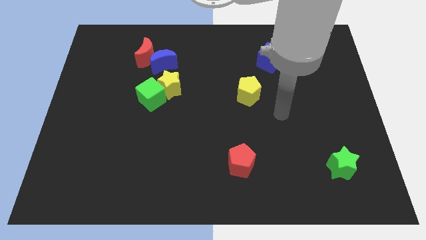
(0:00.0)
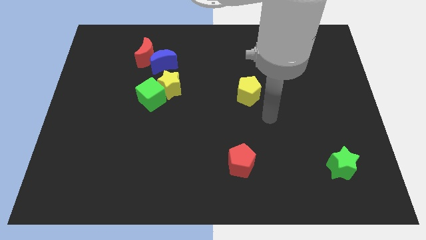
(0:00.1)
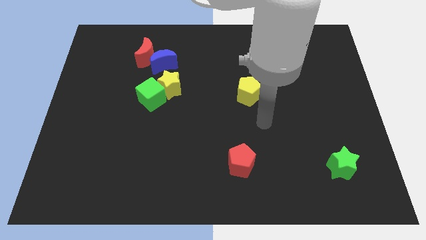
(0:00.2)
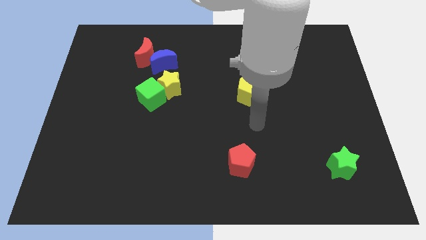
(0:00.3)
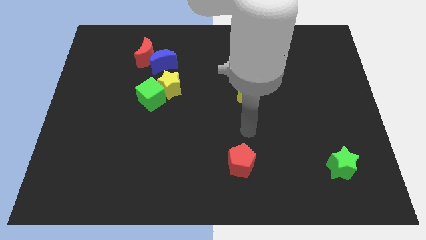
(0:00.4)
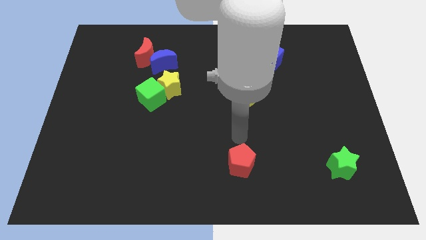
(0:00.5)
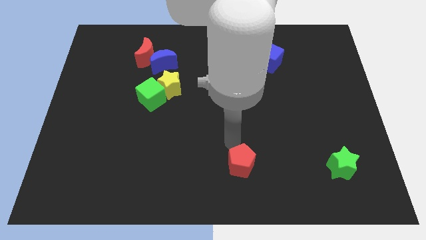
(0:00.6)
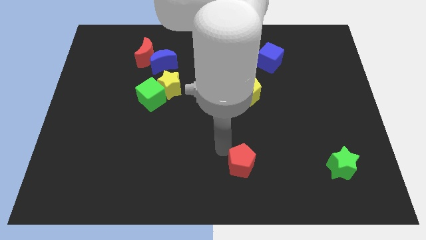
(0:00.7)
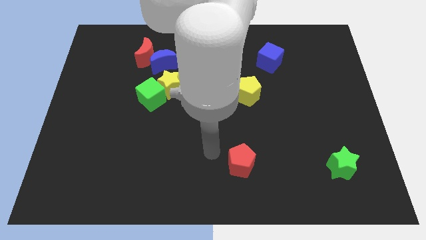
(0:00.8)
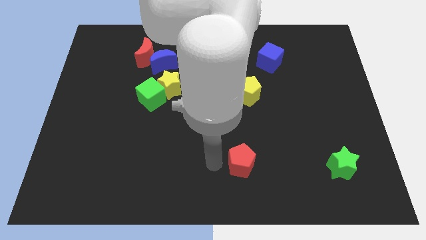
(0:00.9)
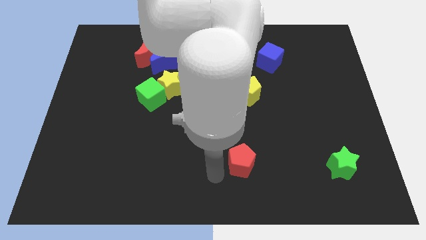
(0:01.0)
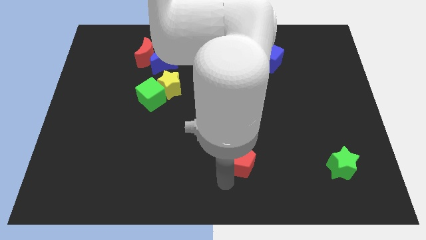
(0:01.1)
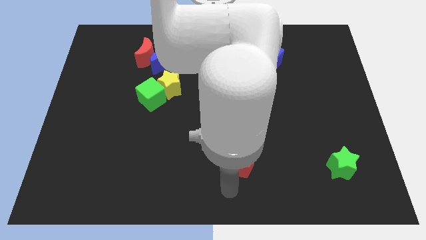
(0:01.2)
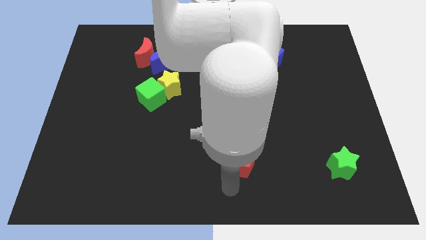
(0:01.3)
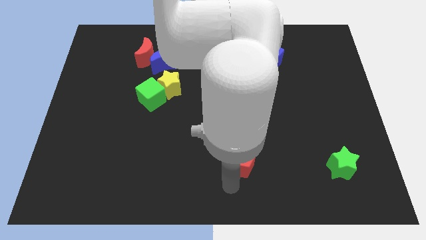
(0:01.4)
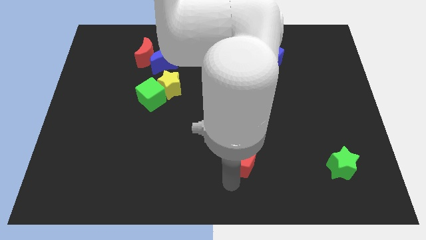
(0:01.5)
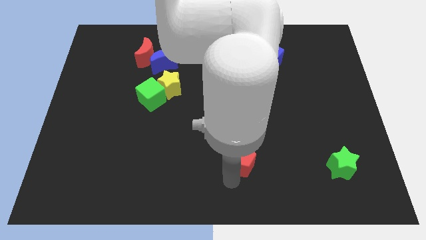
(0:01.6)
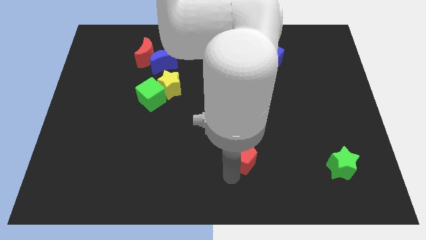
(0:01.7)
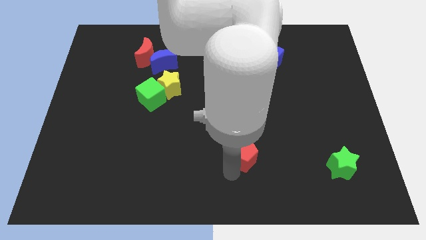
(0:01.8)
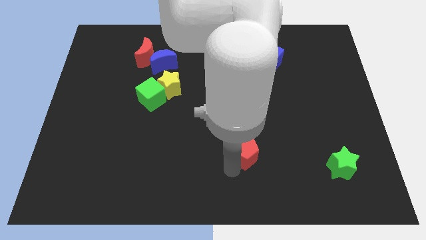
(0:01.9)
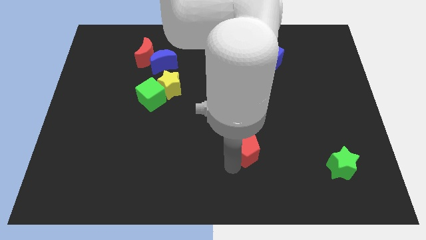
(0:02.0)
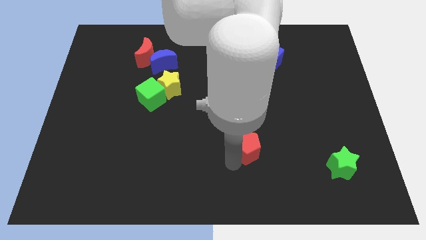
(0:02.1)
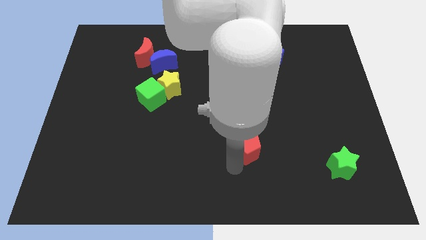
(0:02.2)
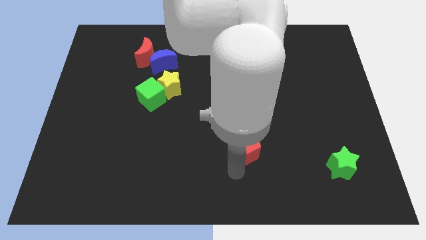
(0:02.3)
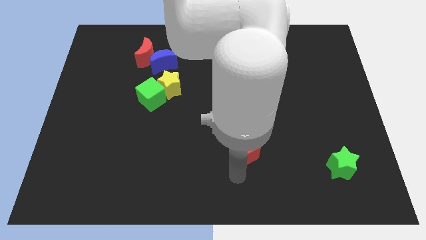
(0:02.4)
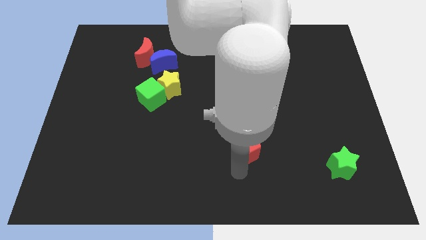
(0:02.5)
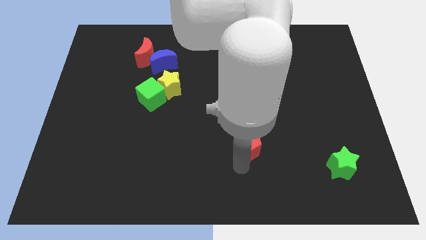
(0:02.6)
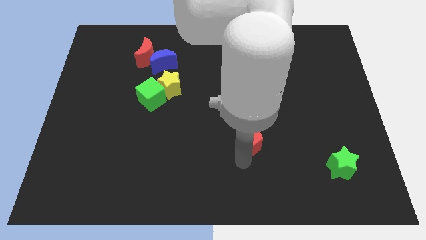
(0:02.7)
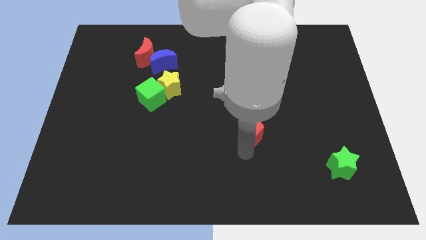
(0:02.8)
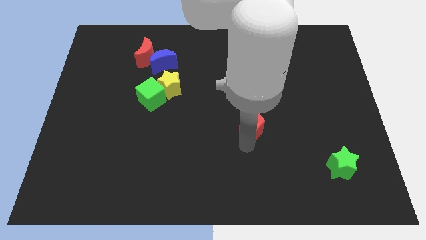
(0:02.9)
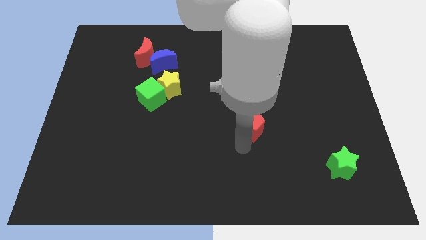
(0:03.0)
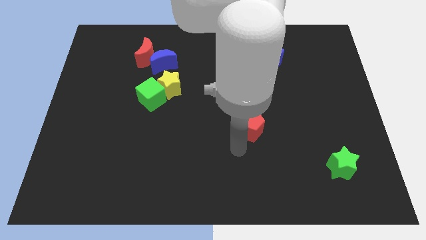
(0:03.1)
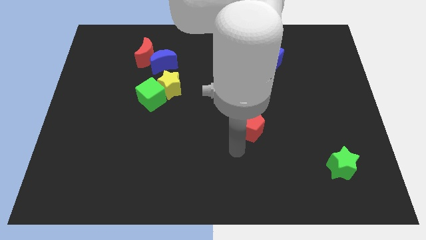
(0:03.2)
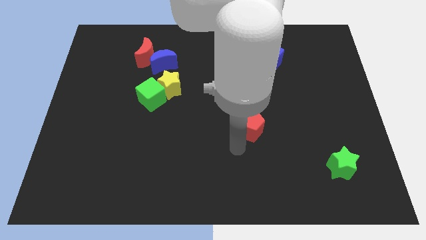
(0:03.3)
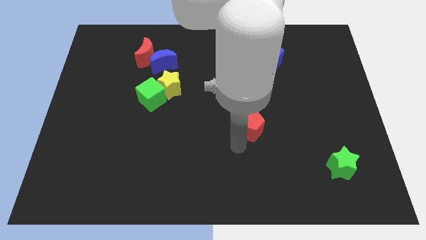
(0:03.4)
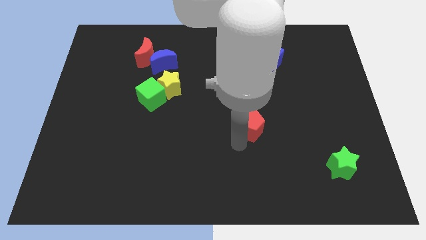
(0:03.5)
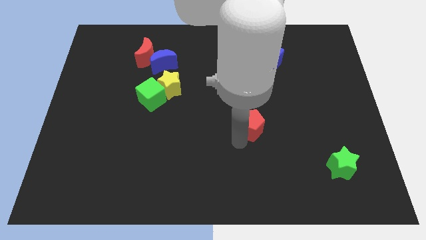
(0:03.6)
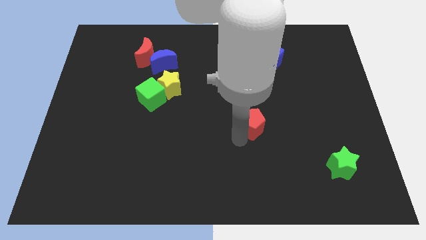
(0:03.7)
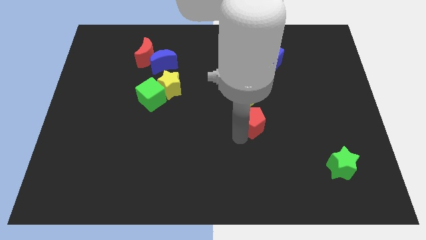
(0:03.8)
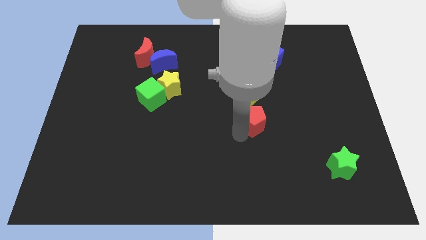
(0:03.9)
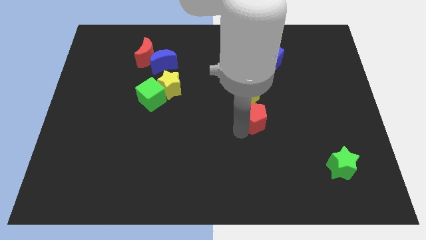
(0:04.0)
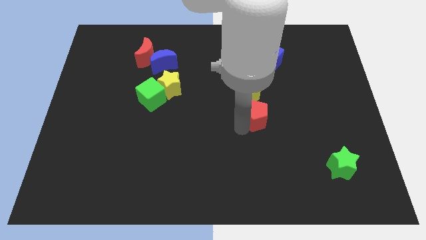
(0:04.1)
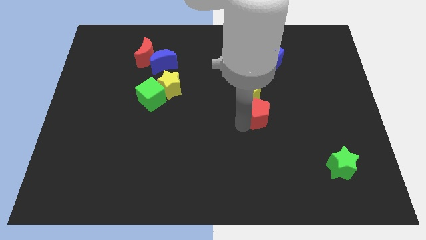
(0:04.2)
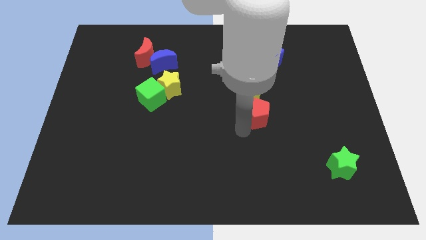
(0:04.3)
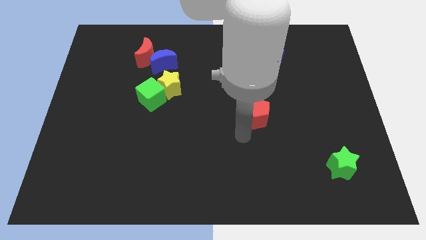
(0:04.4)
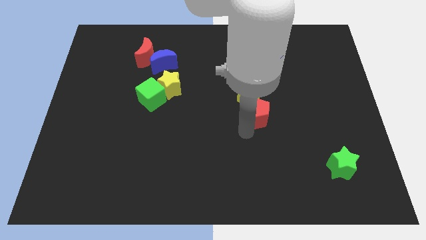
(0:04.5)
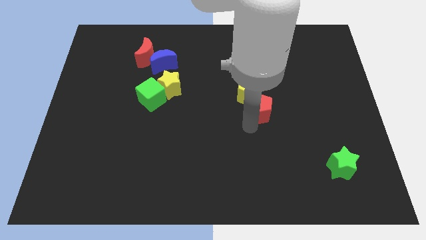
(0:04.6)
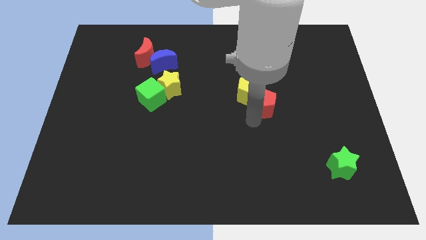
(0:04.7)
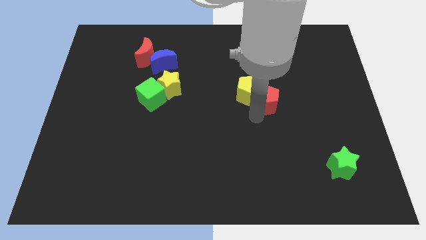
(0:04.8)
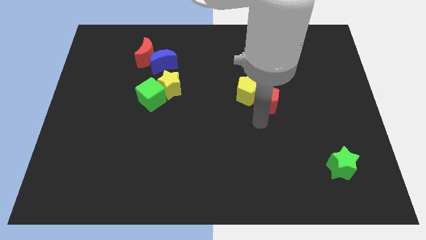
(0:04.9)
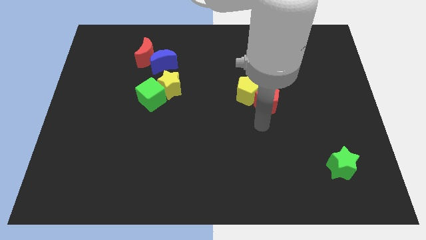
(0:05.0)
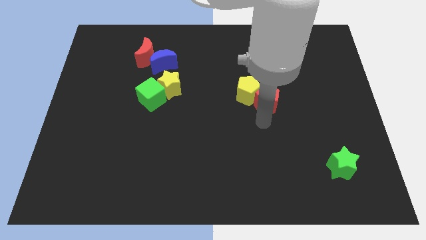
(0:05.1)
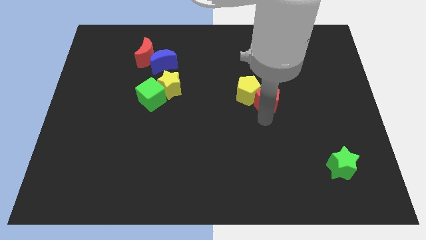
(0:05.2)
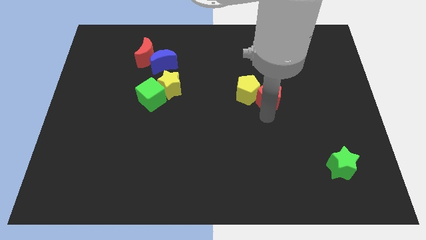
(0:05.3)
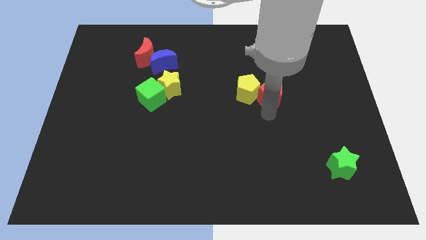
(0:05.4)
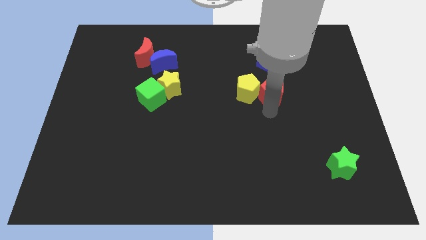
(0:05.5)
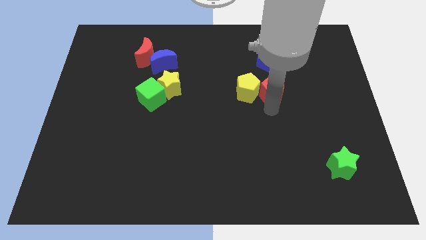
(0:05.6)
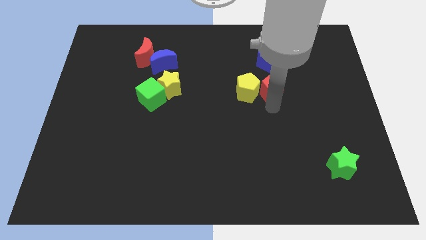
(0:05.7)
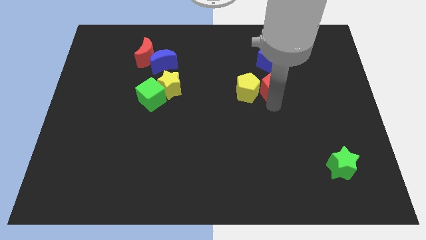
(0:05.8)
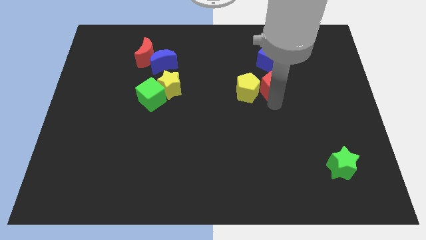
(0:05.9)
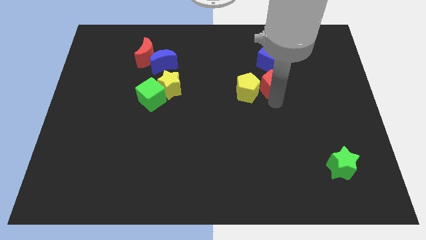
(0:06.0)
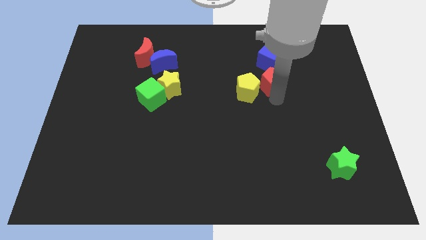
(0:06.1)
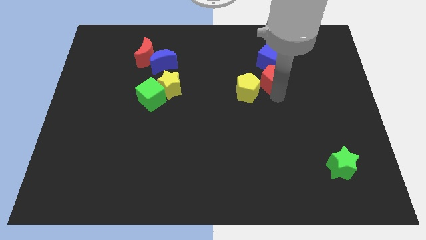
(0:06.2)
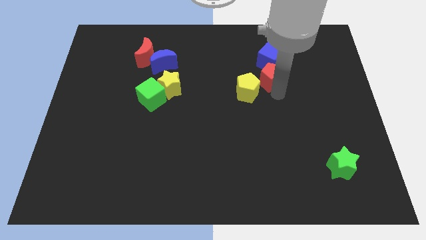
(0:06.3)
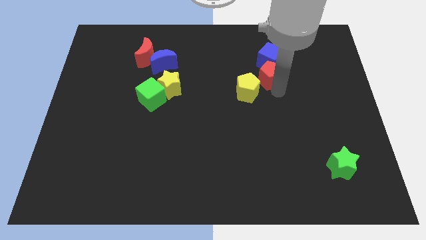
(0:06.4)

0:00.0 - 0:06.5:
move the red pentagon towards the blue cube

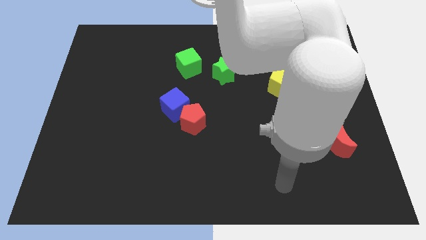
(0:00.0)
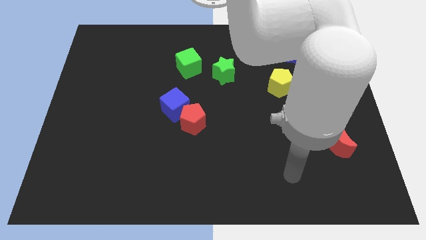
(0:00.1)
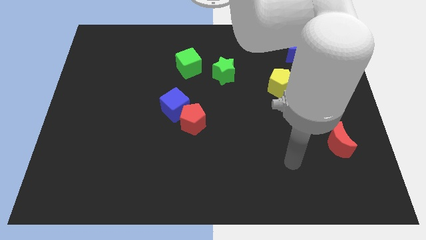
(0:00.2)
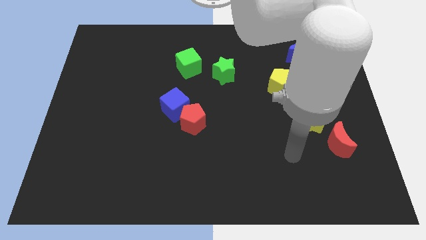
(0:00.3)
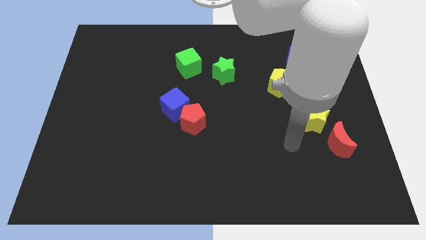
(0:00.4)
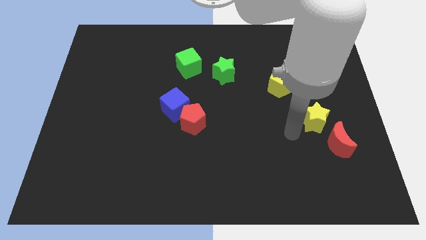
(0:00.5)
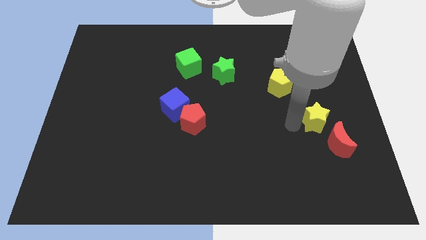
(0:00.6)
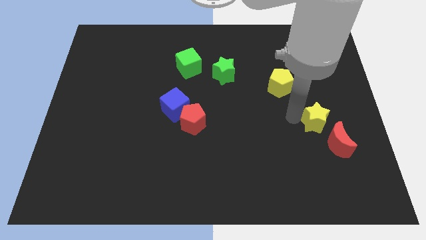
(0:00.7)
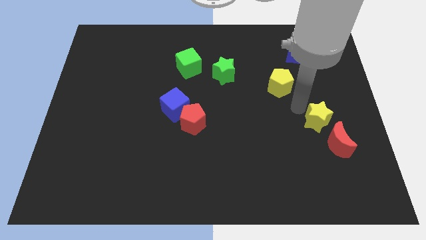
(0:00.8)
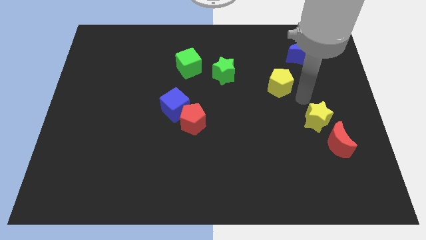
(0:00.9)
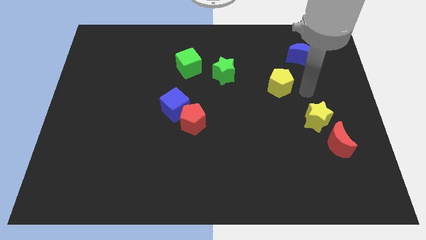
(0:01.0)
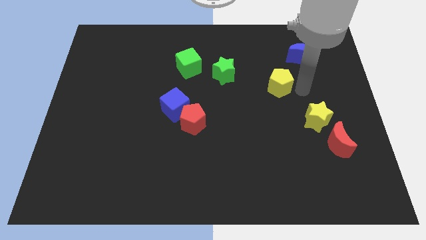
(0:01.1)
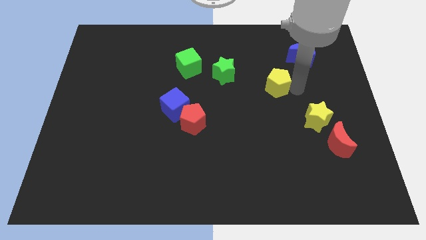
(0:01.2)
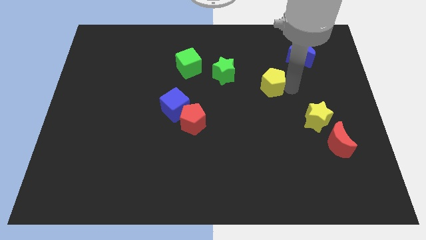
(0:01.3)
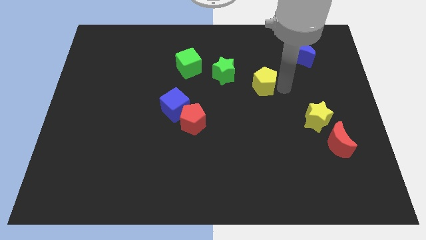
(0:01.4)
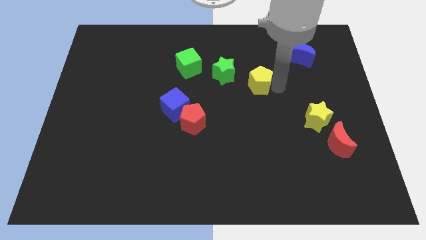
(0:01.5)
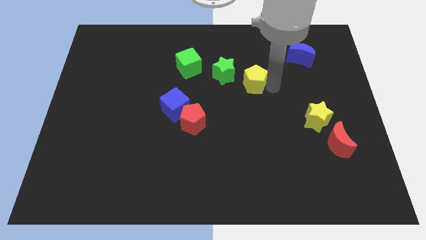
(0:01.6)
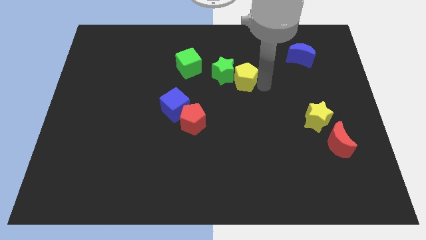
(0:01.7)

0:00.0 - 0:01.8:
put the yellow pentagon next to the green star

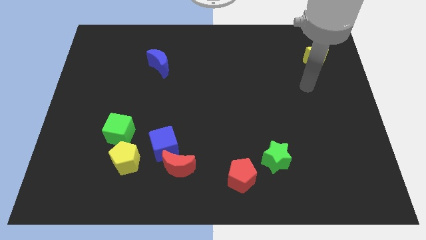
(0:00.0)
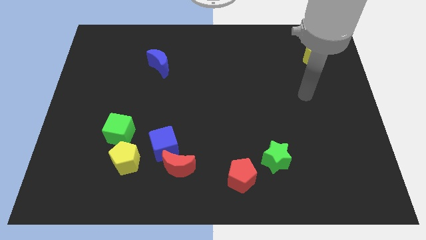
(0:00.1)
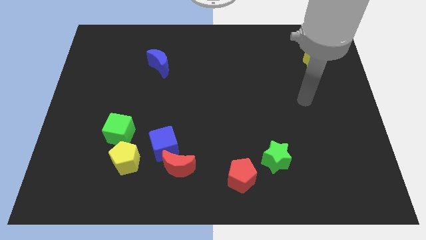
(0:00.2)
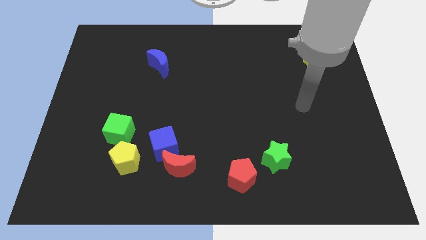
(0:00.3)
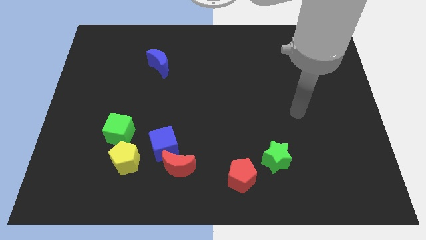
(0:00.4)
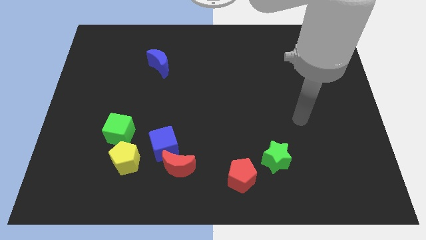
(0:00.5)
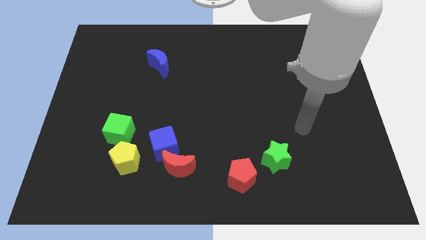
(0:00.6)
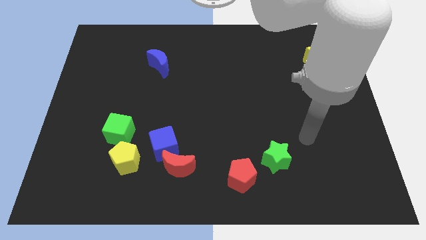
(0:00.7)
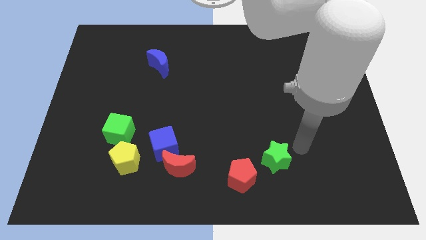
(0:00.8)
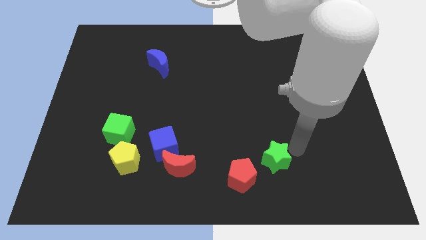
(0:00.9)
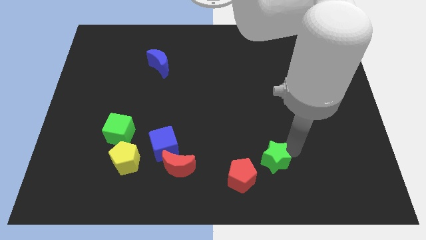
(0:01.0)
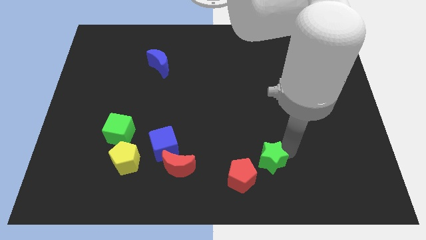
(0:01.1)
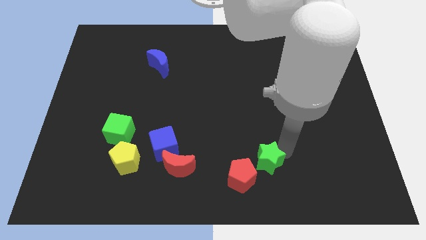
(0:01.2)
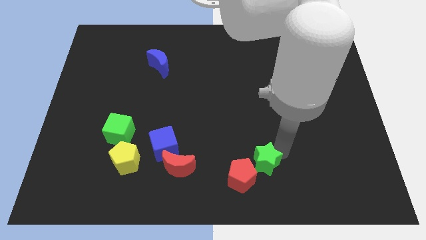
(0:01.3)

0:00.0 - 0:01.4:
move the green star towards the red pentagon
